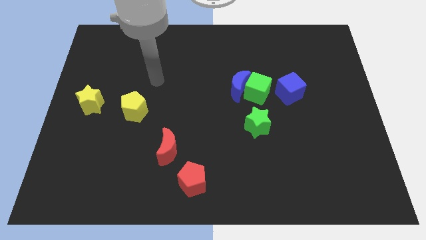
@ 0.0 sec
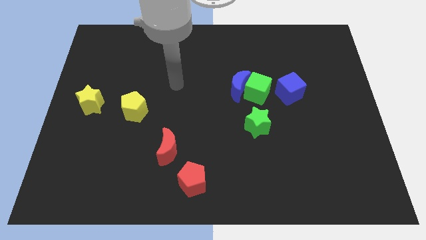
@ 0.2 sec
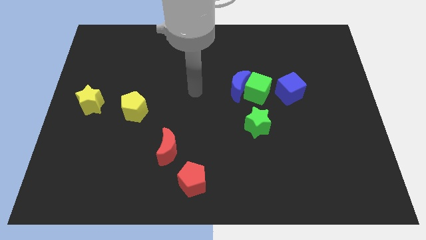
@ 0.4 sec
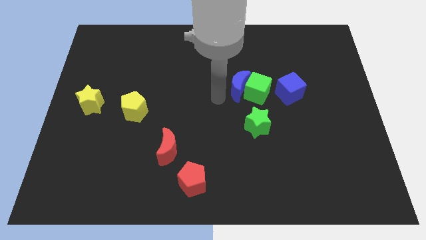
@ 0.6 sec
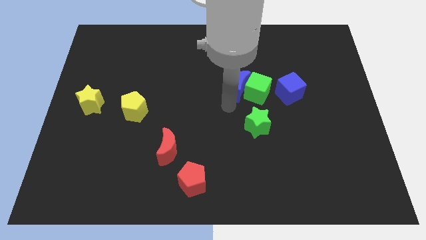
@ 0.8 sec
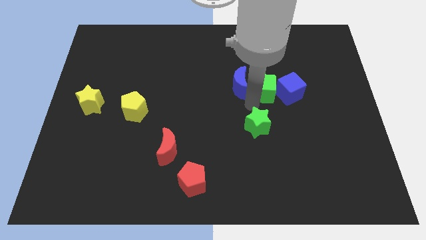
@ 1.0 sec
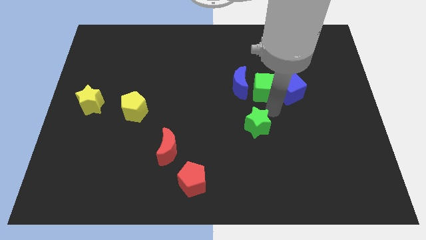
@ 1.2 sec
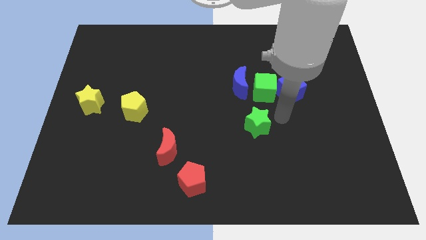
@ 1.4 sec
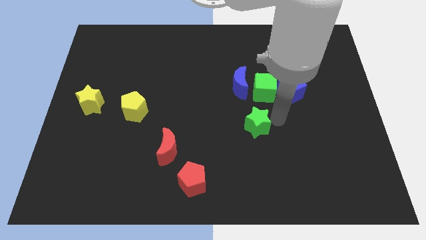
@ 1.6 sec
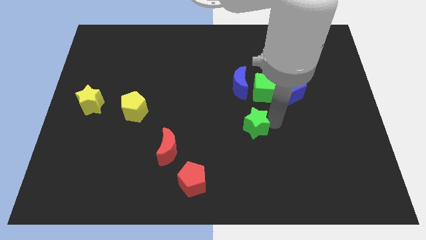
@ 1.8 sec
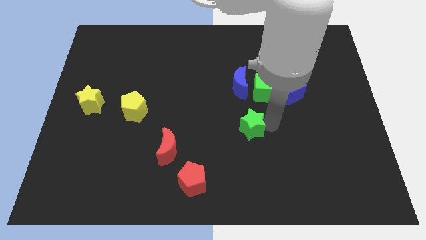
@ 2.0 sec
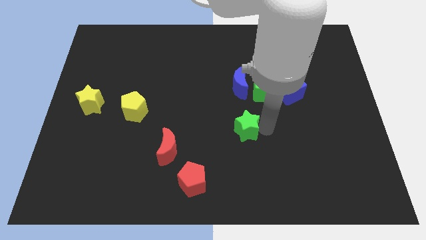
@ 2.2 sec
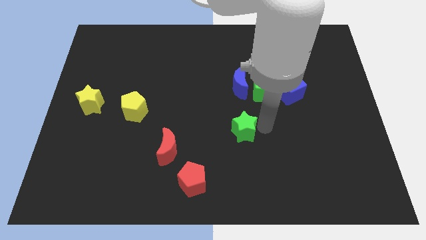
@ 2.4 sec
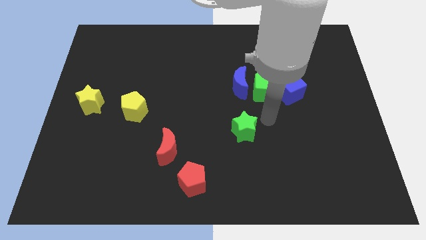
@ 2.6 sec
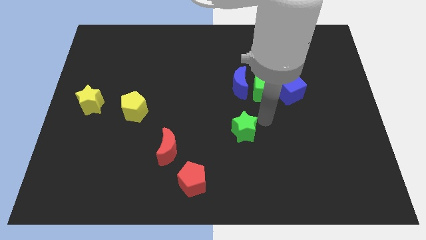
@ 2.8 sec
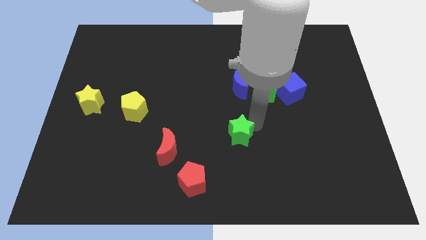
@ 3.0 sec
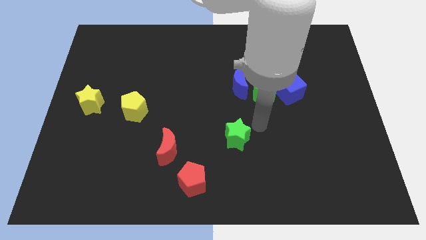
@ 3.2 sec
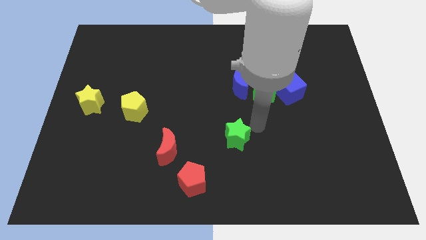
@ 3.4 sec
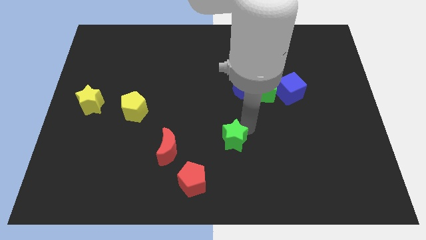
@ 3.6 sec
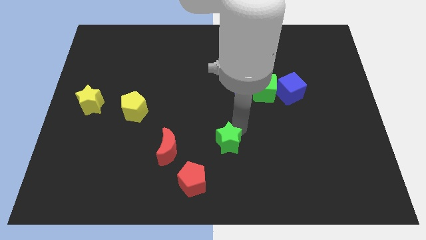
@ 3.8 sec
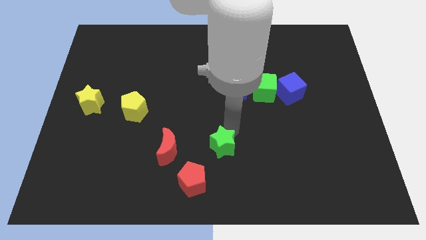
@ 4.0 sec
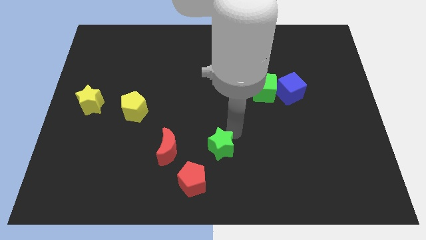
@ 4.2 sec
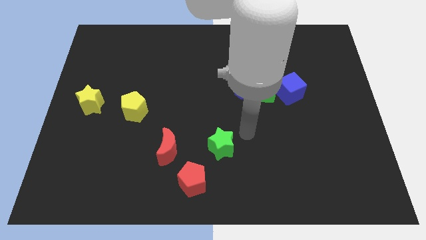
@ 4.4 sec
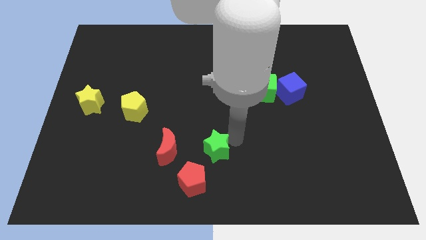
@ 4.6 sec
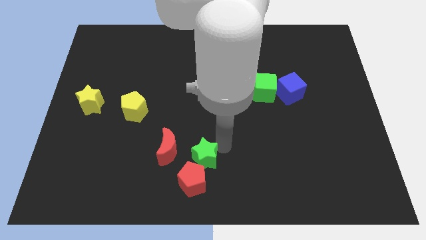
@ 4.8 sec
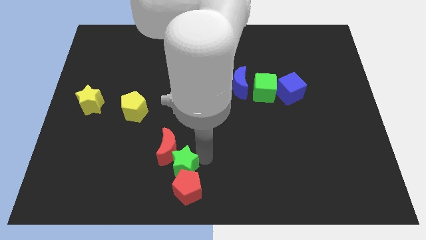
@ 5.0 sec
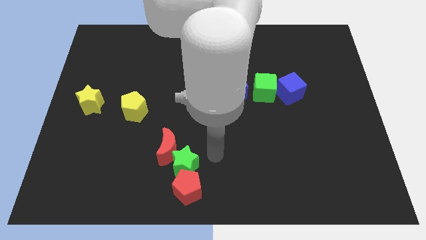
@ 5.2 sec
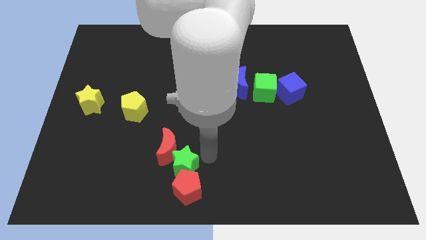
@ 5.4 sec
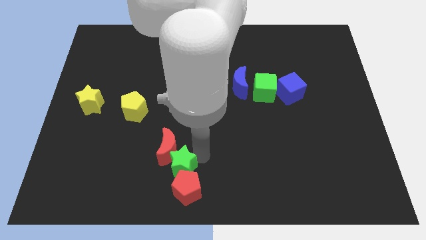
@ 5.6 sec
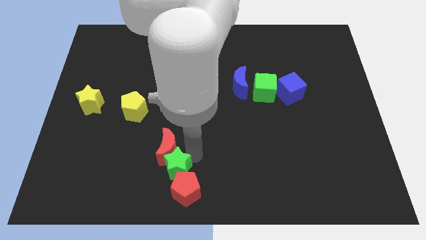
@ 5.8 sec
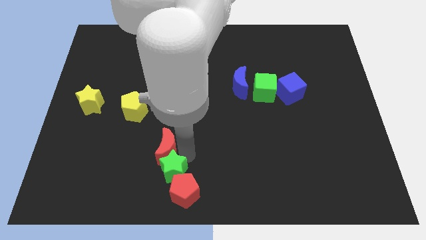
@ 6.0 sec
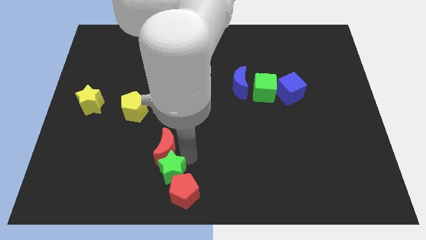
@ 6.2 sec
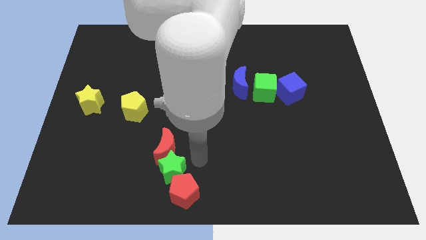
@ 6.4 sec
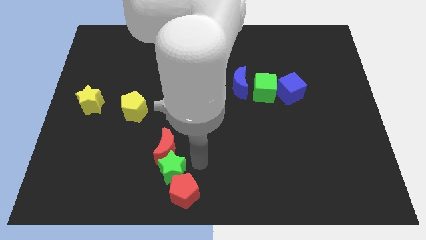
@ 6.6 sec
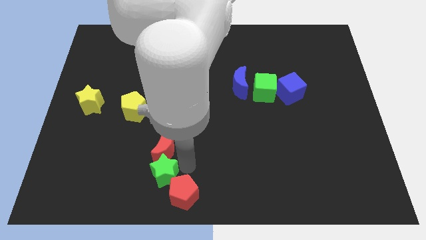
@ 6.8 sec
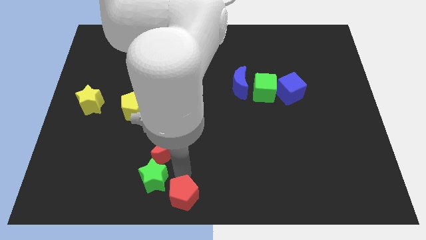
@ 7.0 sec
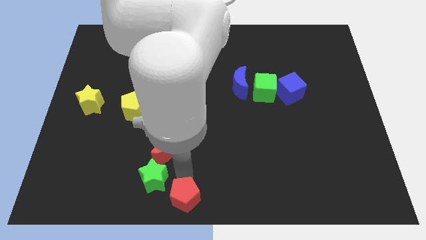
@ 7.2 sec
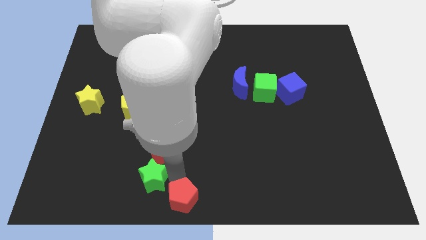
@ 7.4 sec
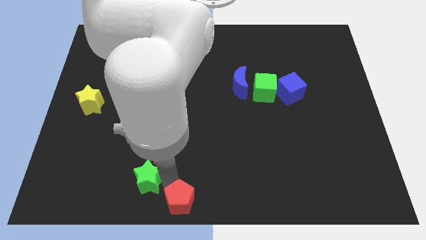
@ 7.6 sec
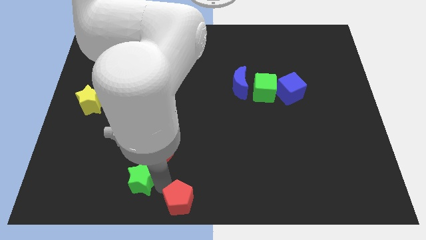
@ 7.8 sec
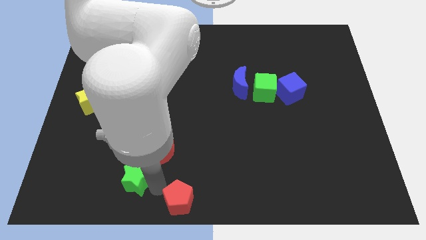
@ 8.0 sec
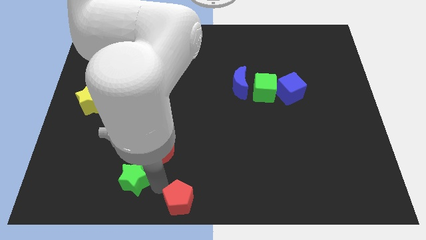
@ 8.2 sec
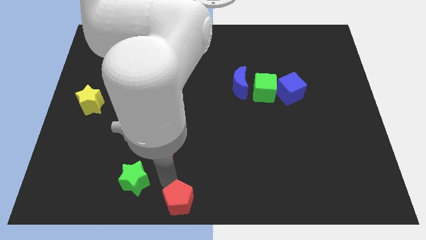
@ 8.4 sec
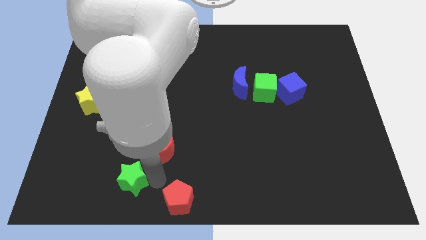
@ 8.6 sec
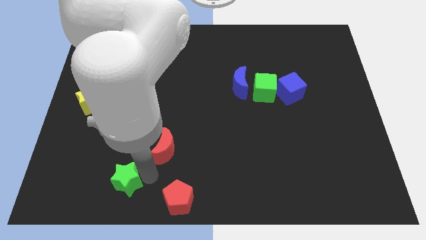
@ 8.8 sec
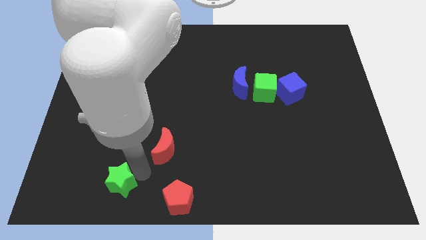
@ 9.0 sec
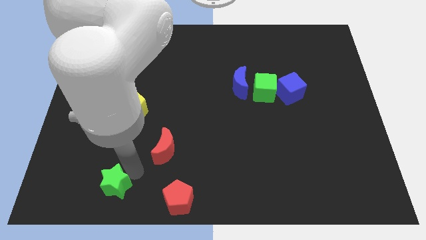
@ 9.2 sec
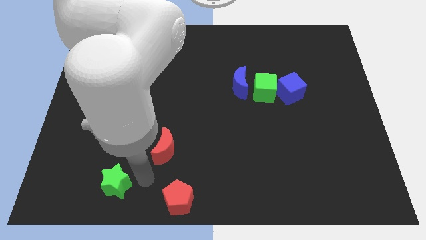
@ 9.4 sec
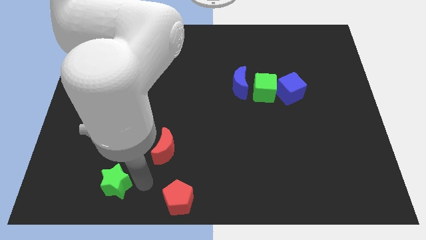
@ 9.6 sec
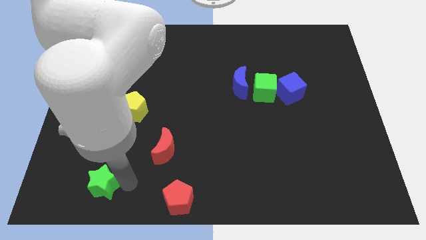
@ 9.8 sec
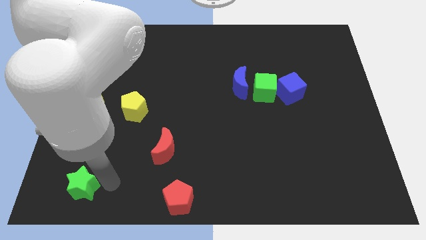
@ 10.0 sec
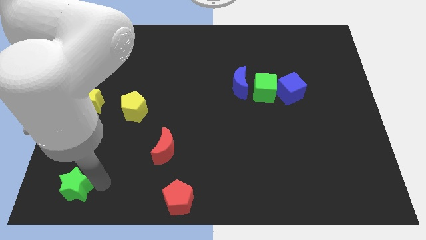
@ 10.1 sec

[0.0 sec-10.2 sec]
move the green star to the bottom left corner

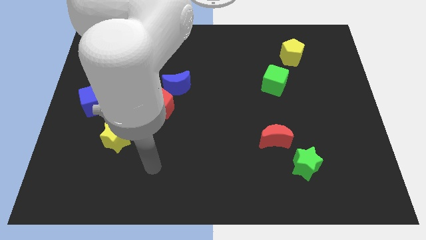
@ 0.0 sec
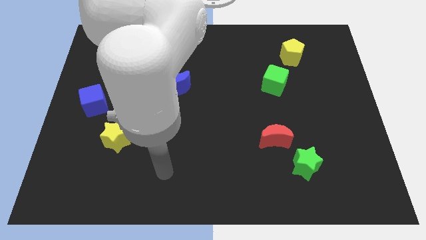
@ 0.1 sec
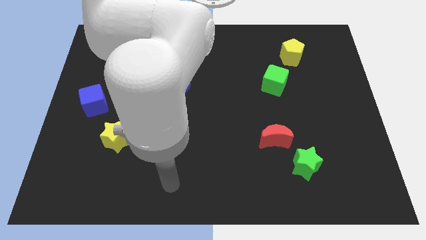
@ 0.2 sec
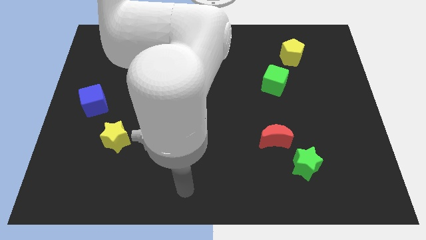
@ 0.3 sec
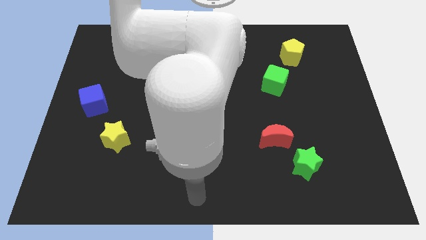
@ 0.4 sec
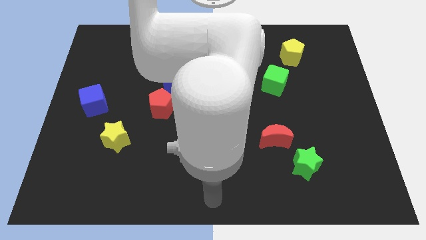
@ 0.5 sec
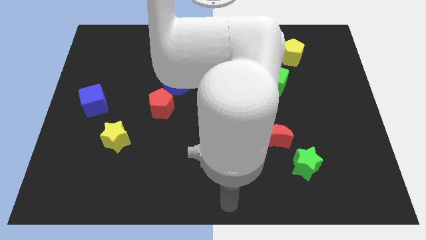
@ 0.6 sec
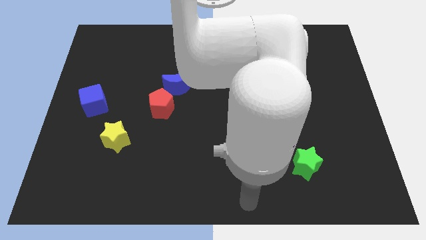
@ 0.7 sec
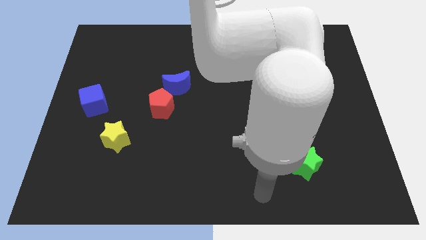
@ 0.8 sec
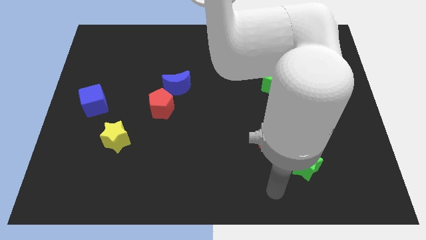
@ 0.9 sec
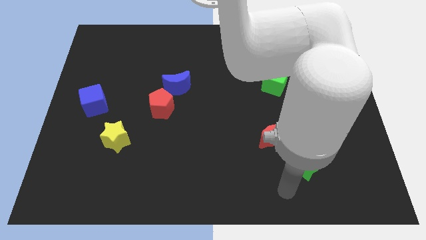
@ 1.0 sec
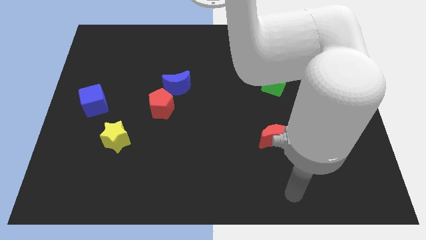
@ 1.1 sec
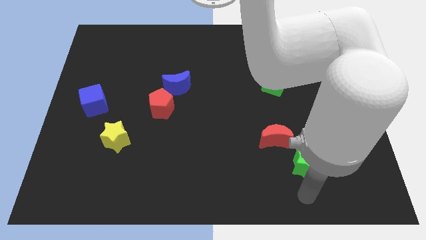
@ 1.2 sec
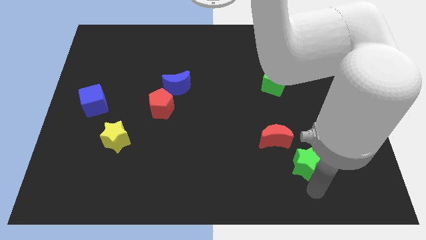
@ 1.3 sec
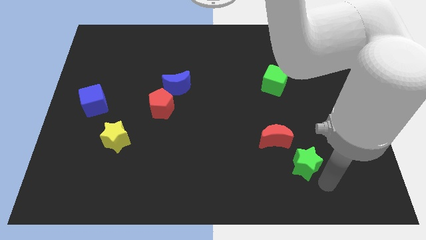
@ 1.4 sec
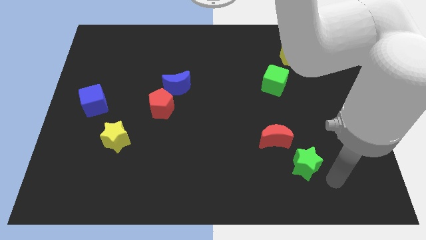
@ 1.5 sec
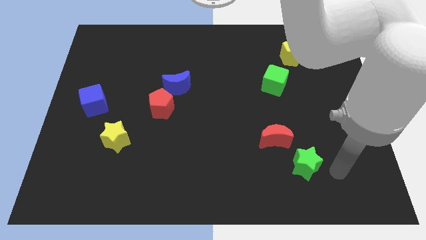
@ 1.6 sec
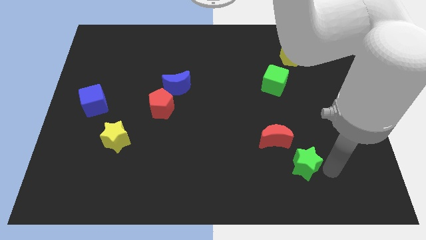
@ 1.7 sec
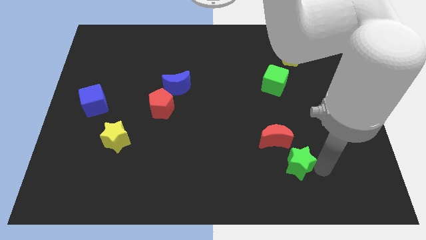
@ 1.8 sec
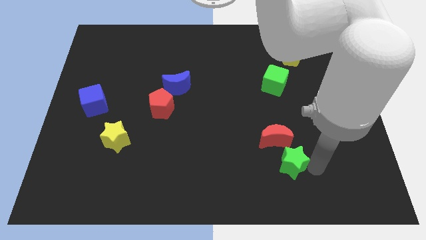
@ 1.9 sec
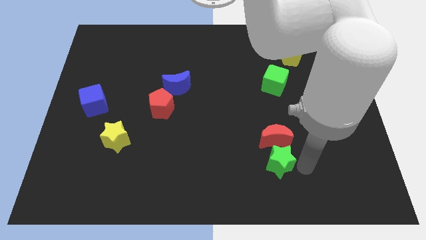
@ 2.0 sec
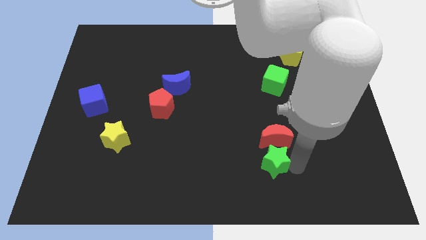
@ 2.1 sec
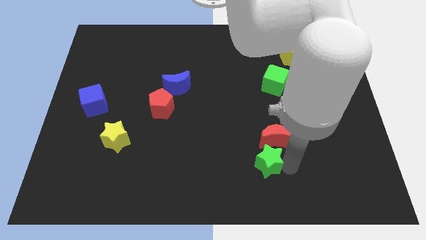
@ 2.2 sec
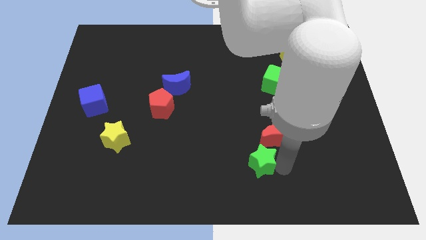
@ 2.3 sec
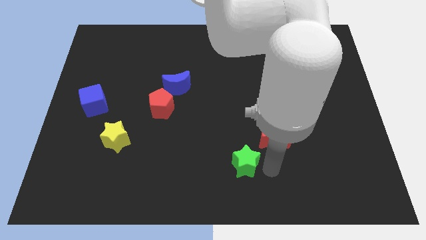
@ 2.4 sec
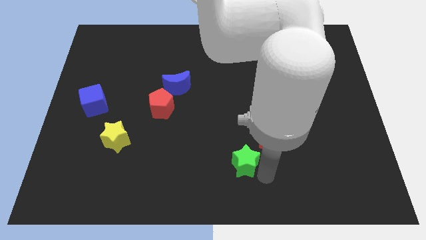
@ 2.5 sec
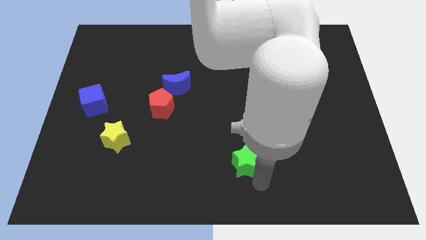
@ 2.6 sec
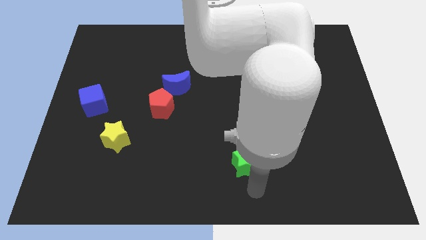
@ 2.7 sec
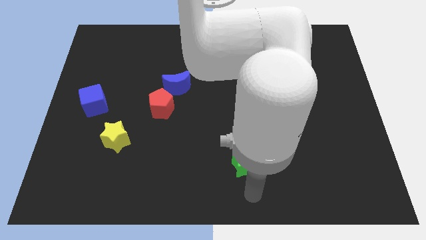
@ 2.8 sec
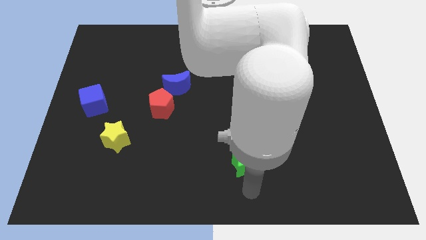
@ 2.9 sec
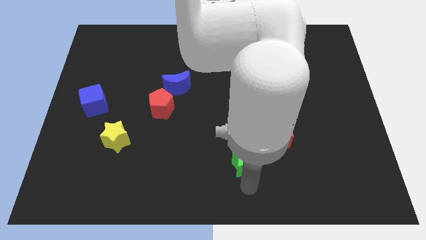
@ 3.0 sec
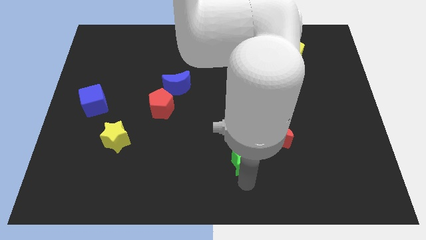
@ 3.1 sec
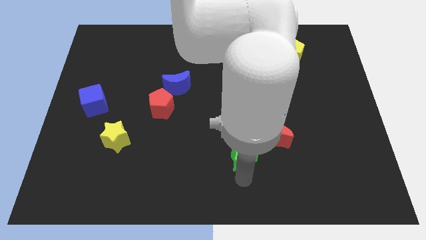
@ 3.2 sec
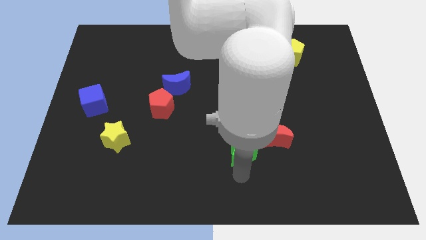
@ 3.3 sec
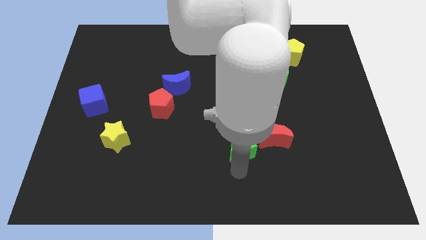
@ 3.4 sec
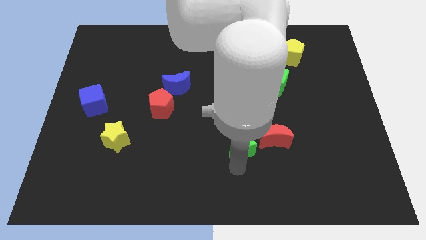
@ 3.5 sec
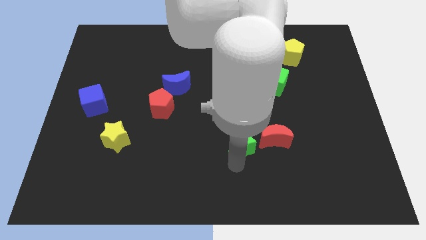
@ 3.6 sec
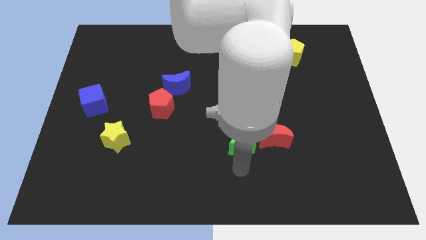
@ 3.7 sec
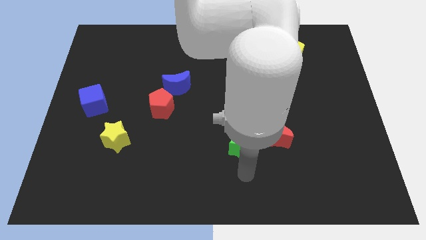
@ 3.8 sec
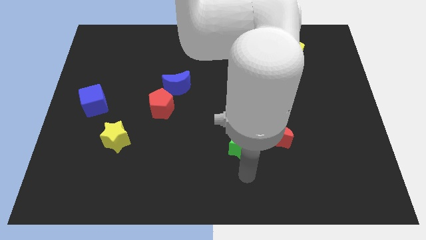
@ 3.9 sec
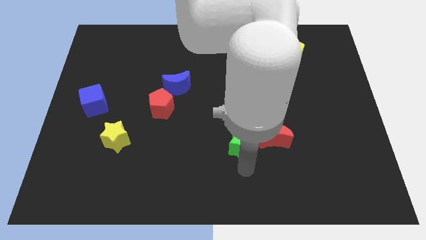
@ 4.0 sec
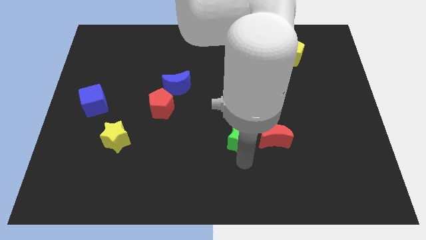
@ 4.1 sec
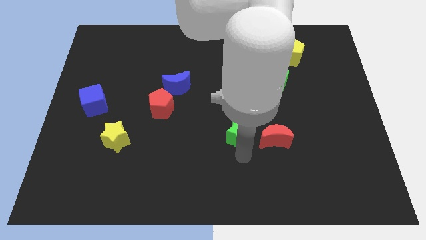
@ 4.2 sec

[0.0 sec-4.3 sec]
push the green star to the center of the board
